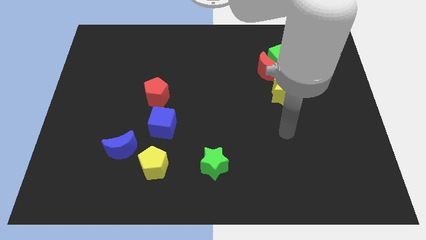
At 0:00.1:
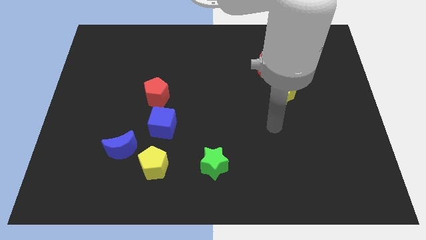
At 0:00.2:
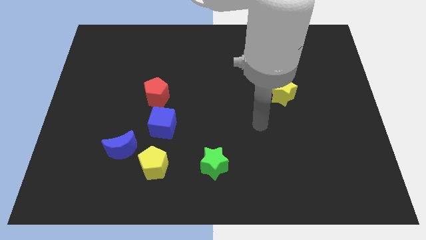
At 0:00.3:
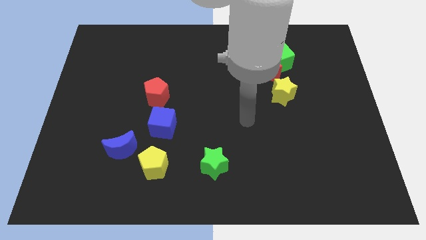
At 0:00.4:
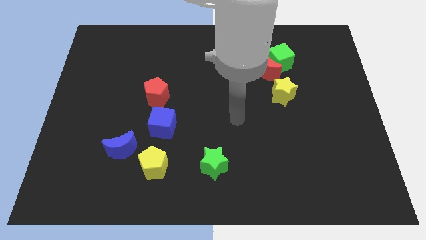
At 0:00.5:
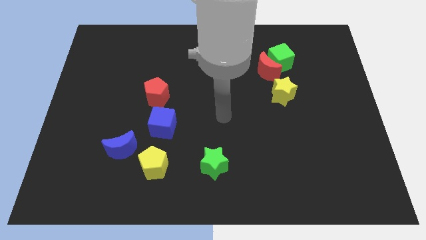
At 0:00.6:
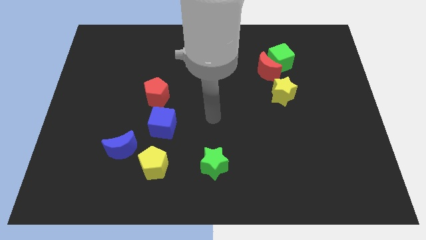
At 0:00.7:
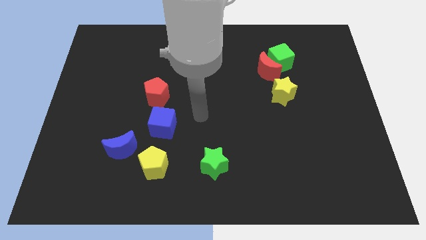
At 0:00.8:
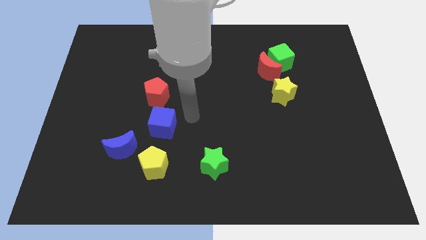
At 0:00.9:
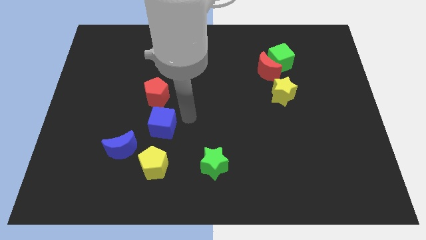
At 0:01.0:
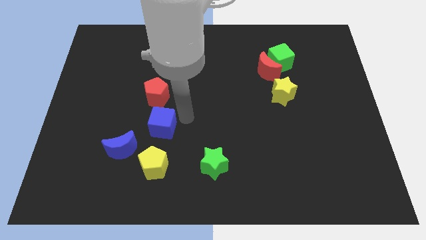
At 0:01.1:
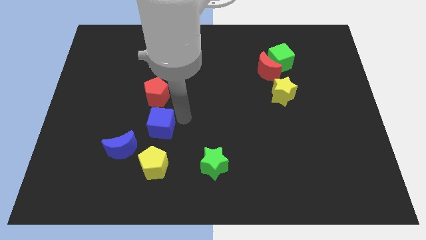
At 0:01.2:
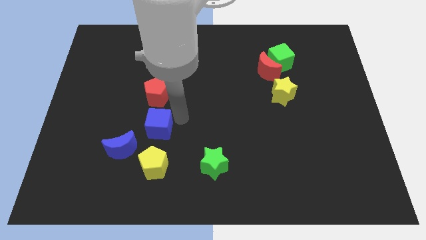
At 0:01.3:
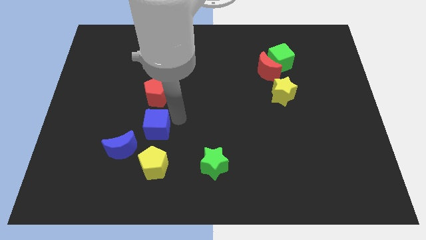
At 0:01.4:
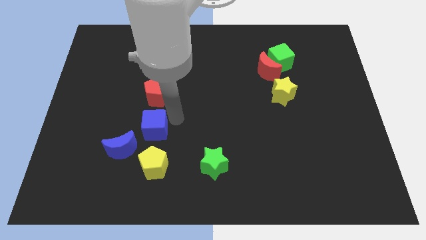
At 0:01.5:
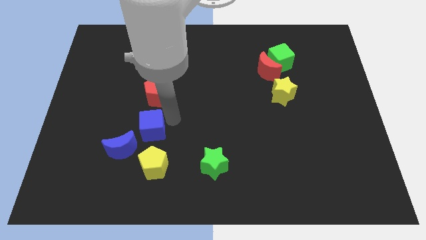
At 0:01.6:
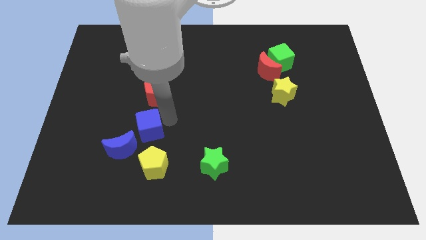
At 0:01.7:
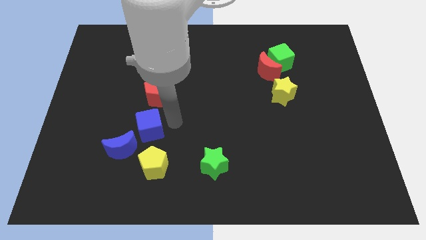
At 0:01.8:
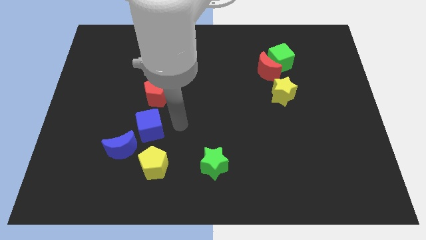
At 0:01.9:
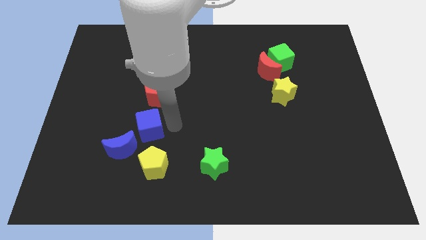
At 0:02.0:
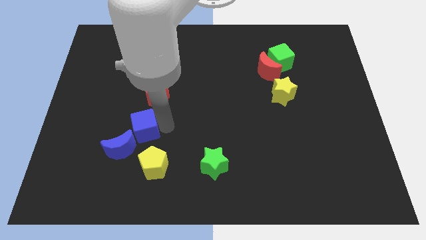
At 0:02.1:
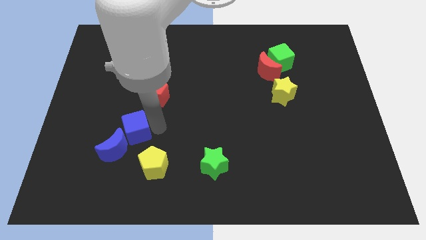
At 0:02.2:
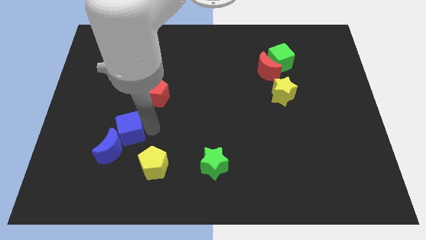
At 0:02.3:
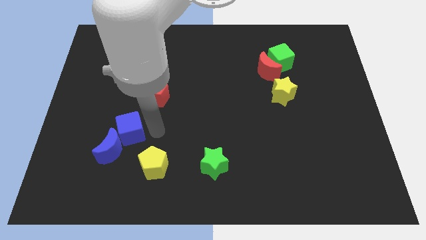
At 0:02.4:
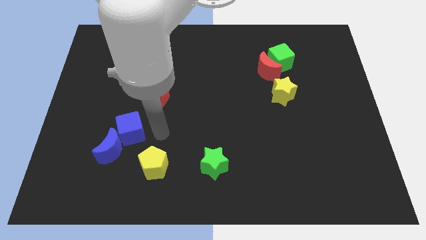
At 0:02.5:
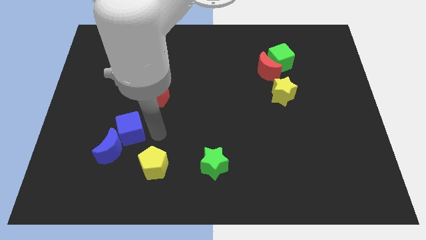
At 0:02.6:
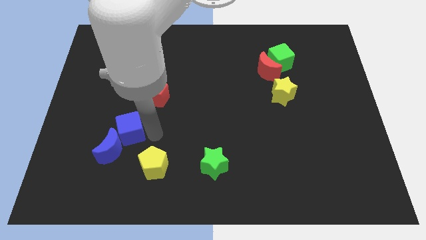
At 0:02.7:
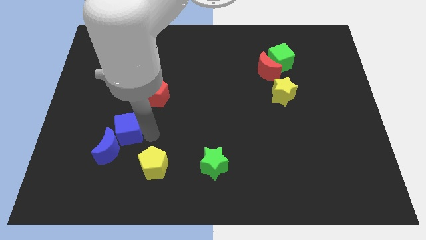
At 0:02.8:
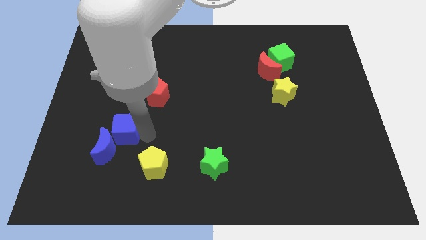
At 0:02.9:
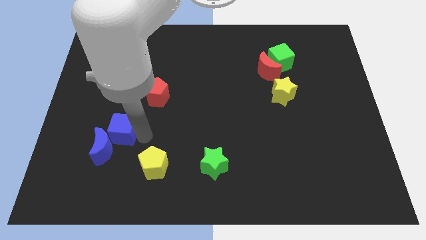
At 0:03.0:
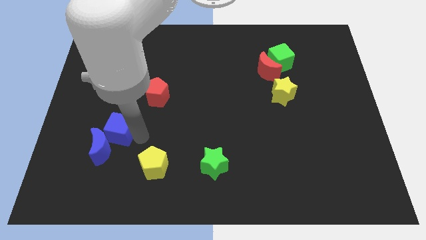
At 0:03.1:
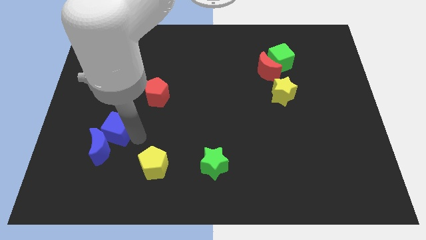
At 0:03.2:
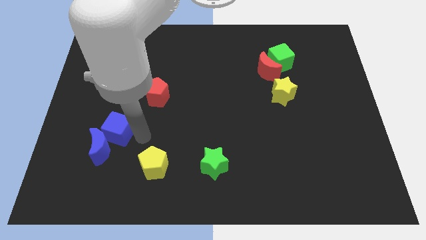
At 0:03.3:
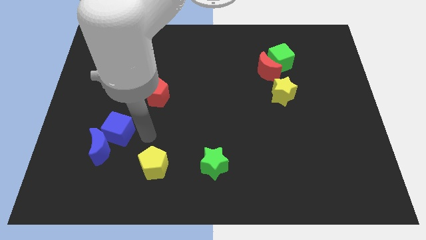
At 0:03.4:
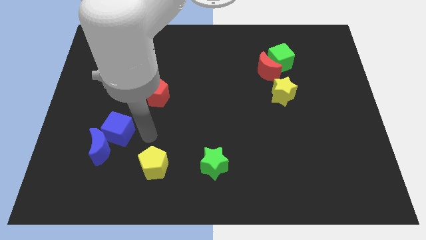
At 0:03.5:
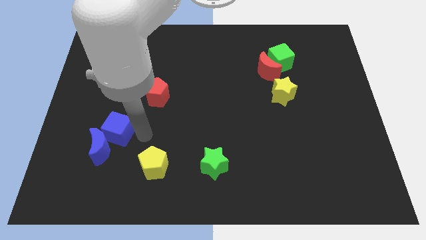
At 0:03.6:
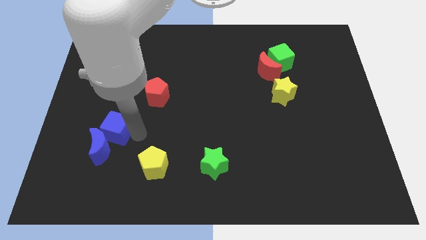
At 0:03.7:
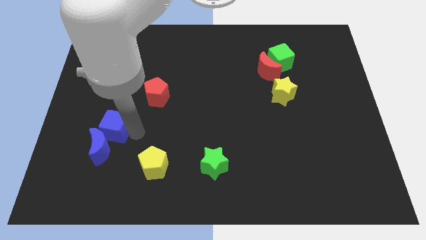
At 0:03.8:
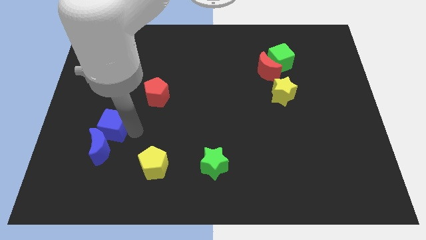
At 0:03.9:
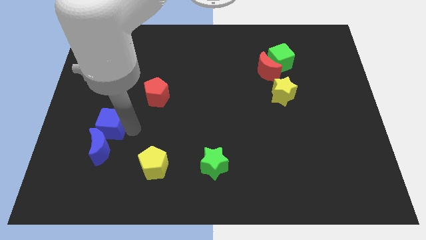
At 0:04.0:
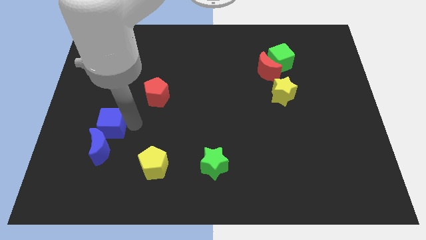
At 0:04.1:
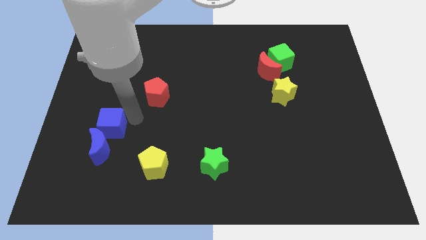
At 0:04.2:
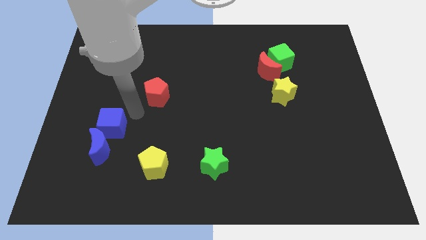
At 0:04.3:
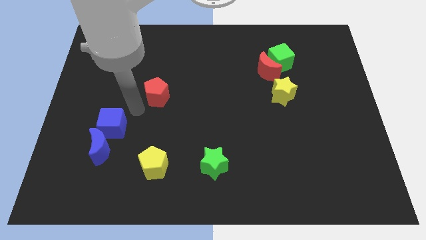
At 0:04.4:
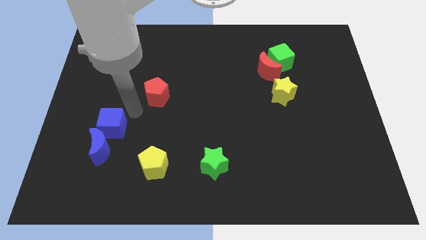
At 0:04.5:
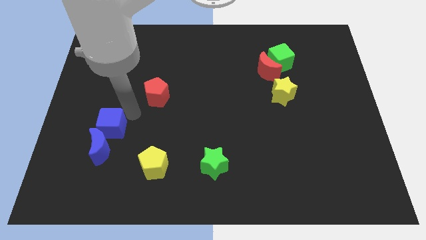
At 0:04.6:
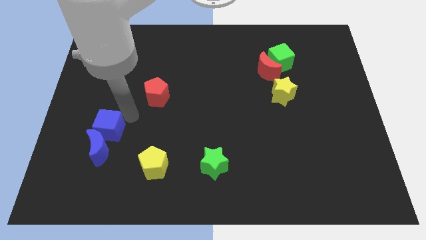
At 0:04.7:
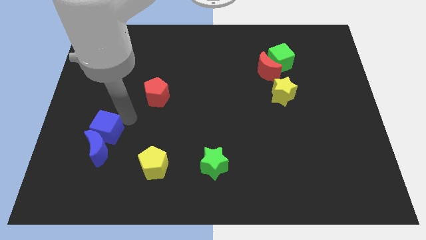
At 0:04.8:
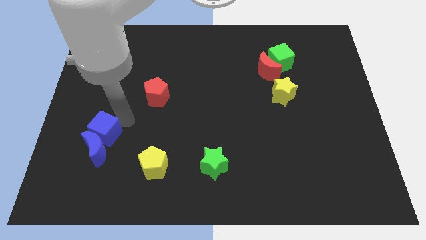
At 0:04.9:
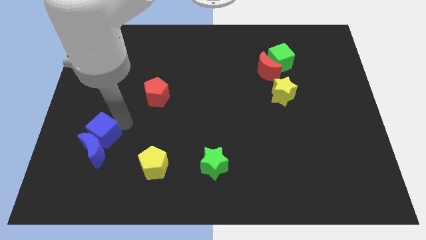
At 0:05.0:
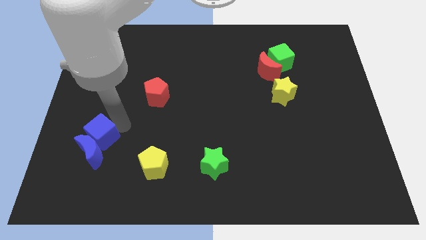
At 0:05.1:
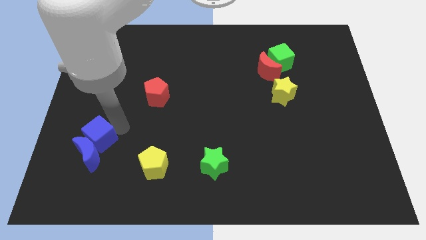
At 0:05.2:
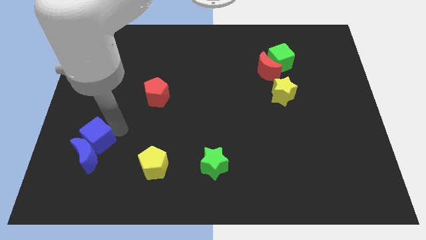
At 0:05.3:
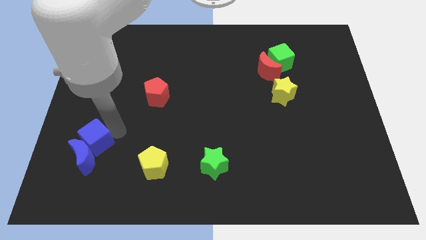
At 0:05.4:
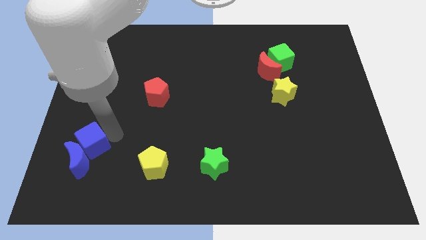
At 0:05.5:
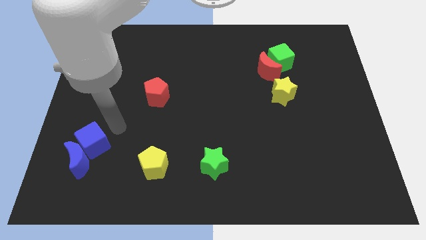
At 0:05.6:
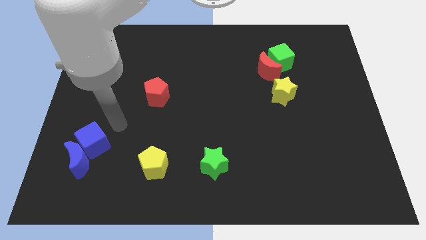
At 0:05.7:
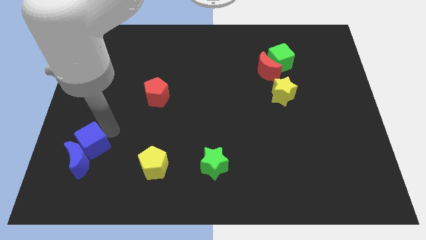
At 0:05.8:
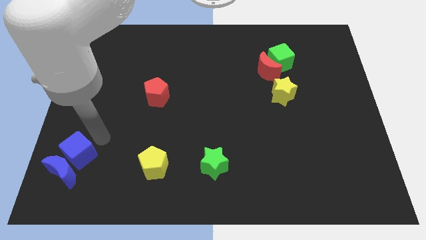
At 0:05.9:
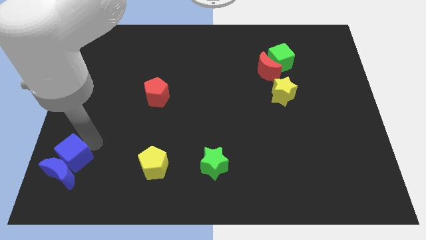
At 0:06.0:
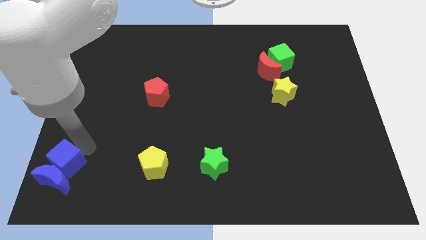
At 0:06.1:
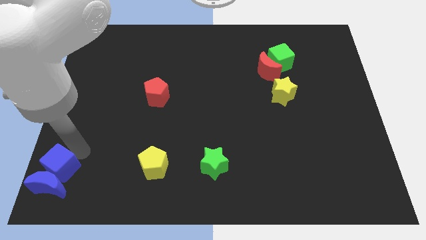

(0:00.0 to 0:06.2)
put the blue cube to the bottom left

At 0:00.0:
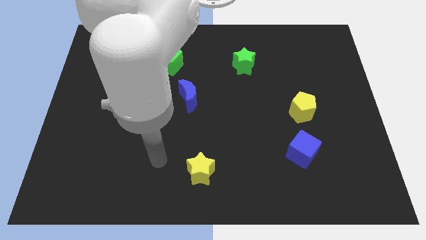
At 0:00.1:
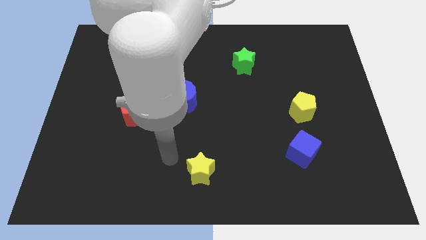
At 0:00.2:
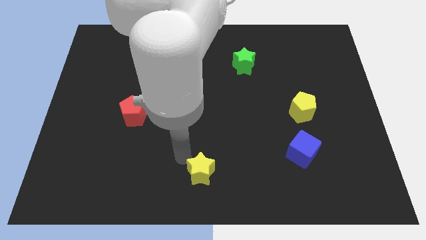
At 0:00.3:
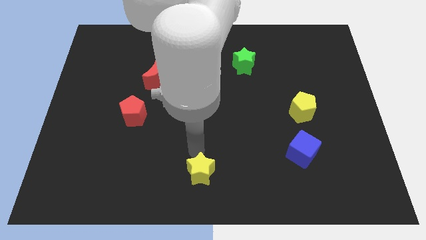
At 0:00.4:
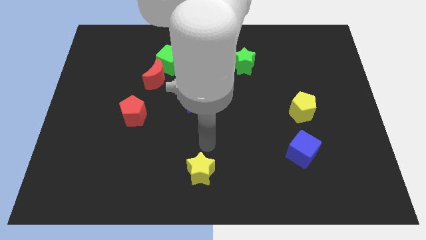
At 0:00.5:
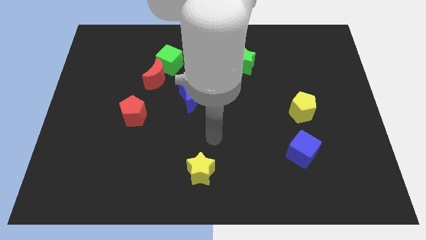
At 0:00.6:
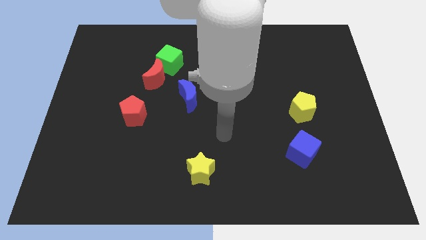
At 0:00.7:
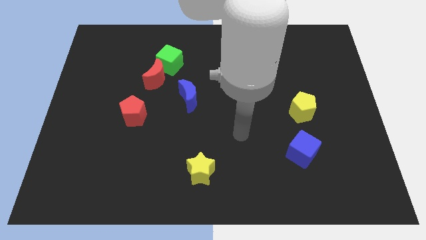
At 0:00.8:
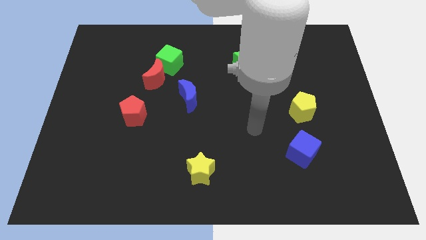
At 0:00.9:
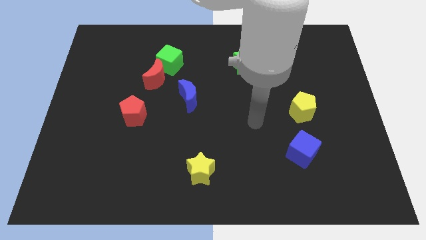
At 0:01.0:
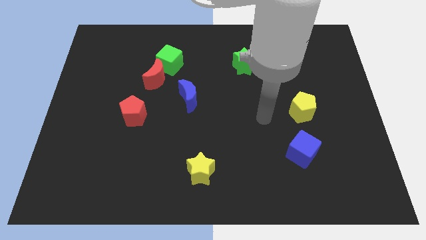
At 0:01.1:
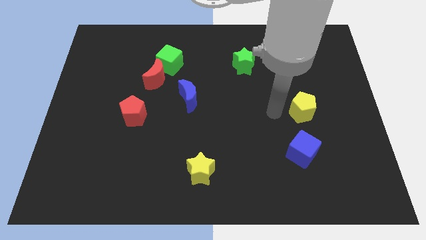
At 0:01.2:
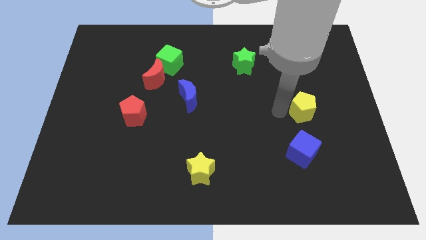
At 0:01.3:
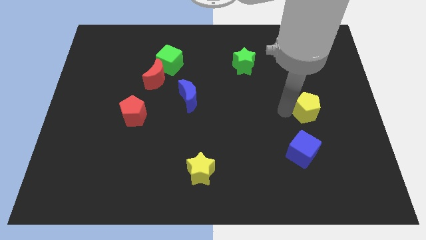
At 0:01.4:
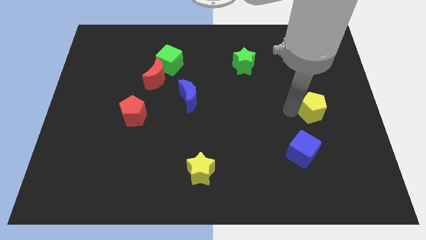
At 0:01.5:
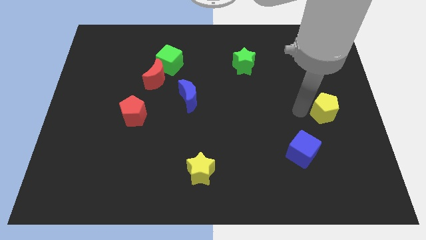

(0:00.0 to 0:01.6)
slide the yellow pentagon to the center right
